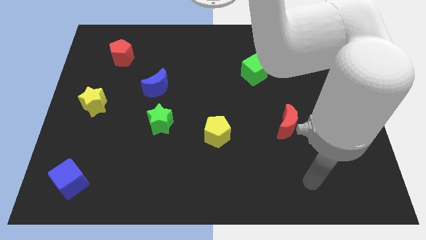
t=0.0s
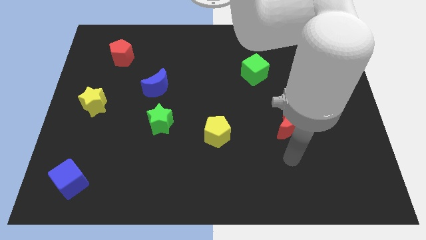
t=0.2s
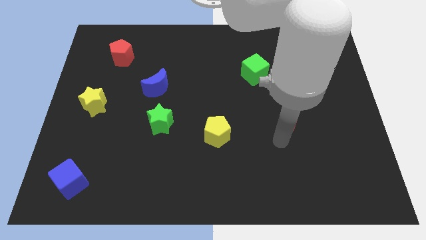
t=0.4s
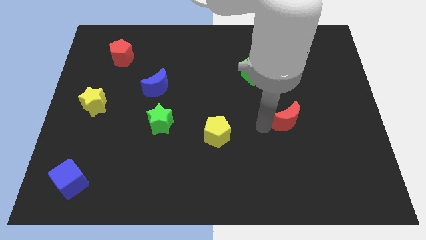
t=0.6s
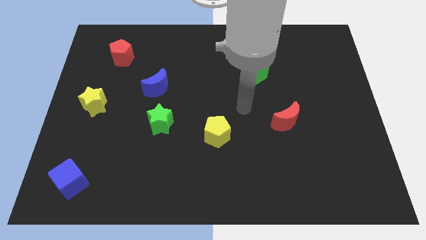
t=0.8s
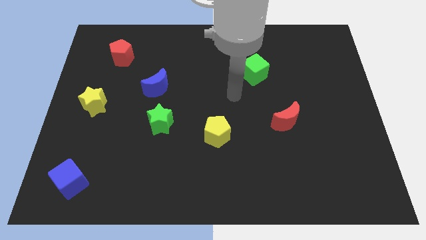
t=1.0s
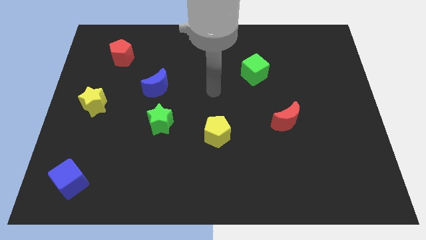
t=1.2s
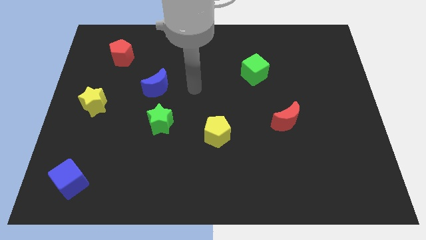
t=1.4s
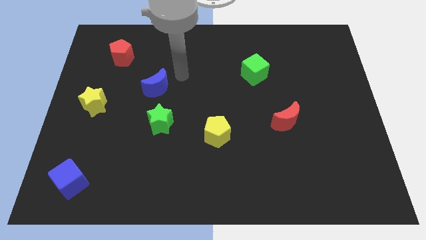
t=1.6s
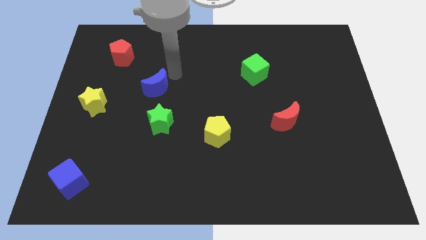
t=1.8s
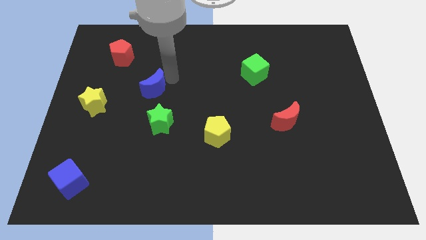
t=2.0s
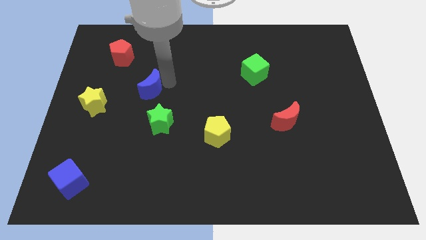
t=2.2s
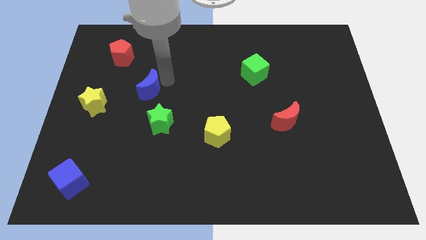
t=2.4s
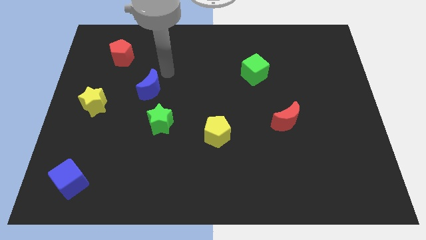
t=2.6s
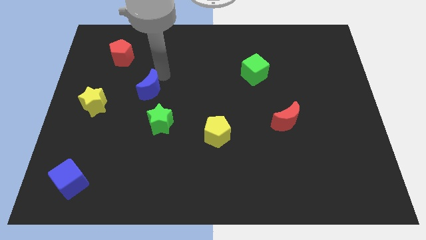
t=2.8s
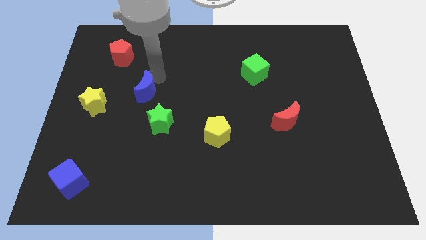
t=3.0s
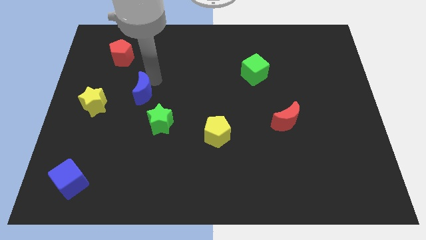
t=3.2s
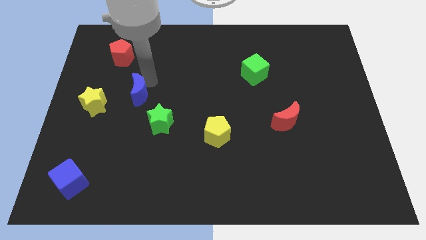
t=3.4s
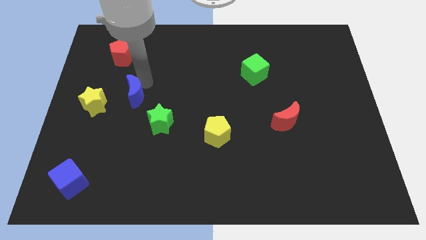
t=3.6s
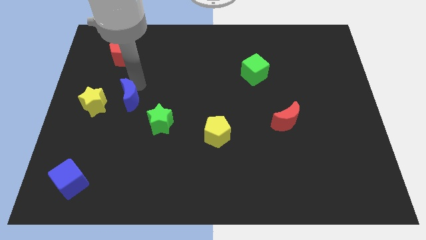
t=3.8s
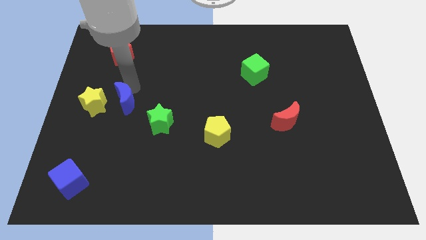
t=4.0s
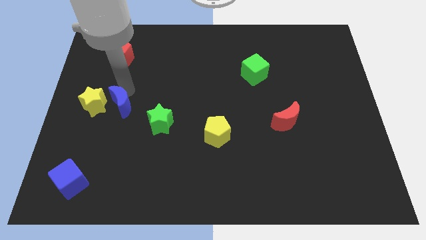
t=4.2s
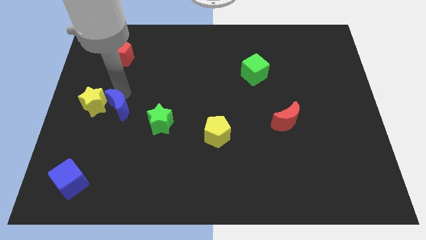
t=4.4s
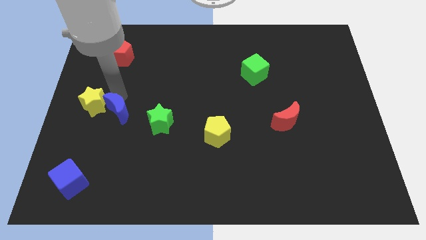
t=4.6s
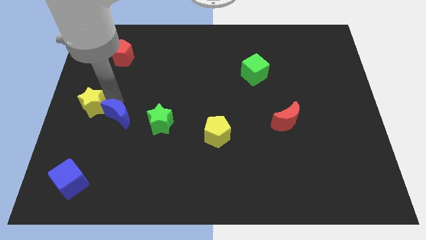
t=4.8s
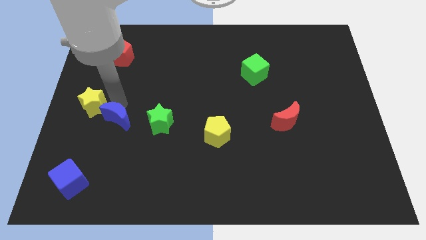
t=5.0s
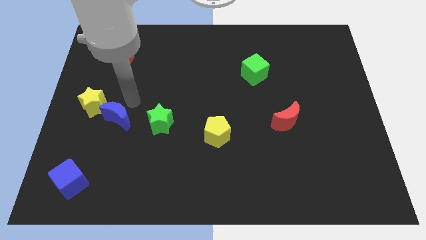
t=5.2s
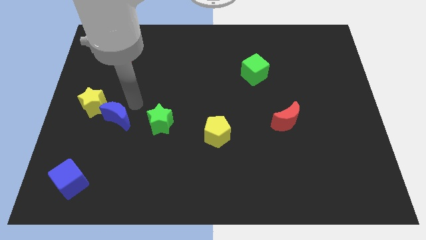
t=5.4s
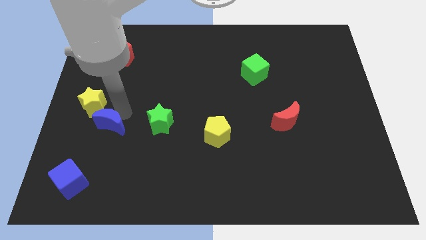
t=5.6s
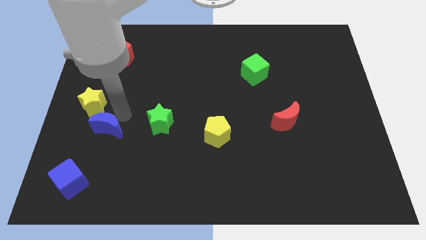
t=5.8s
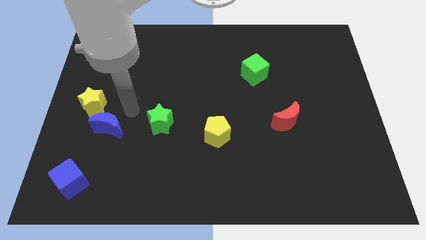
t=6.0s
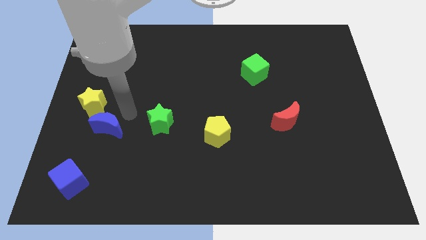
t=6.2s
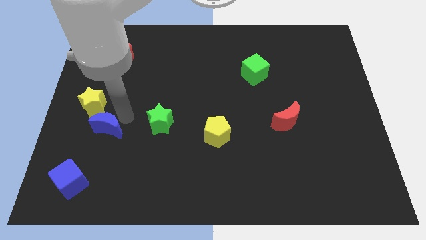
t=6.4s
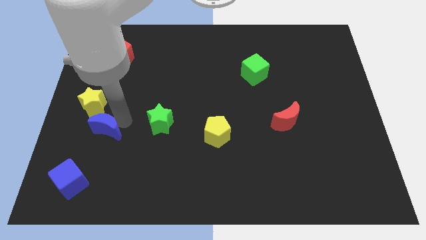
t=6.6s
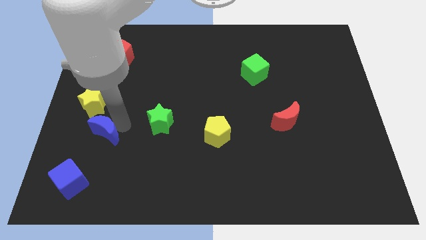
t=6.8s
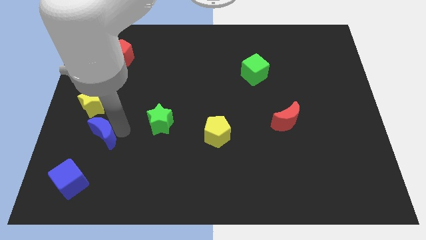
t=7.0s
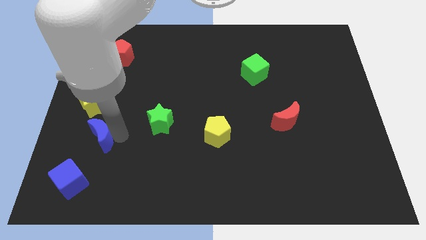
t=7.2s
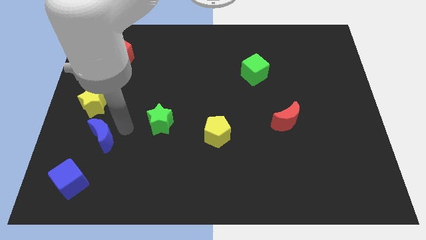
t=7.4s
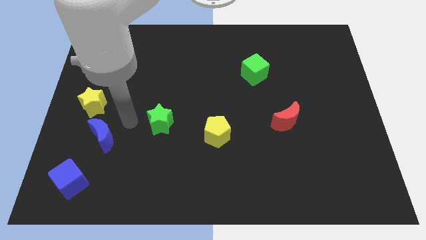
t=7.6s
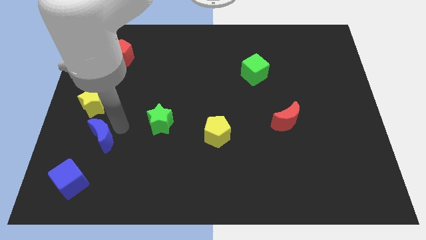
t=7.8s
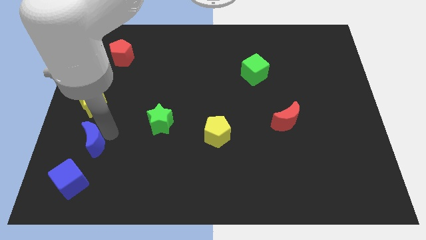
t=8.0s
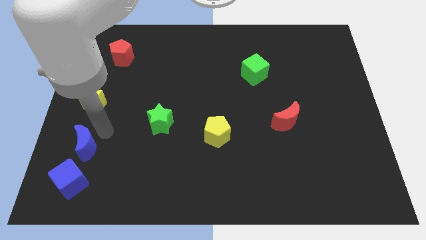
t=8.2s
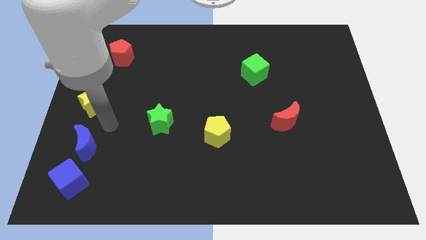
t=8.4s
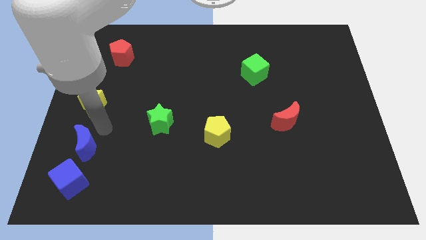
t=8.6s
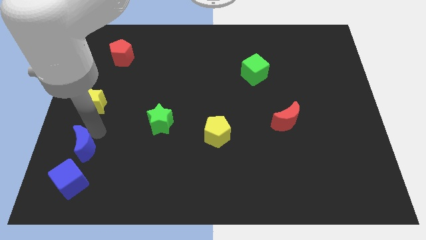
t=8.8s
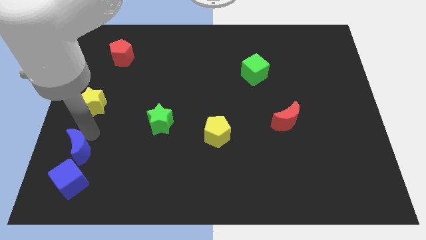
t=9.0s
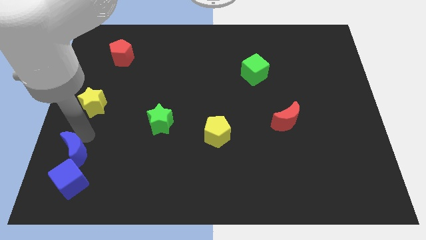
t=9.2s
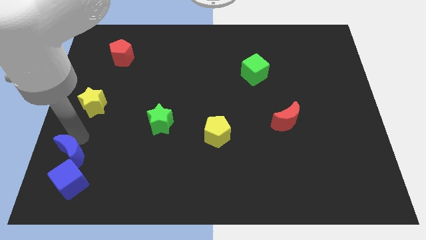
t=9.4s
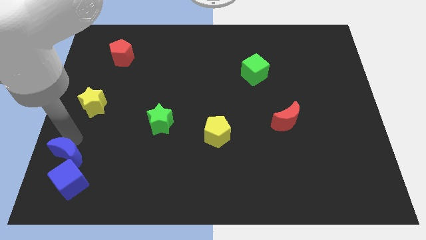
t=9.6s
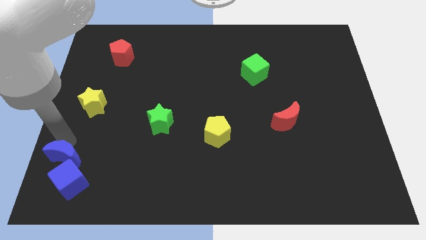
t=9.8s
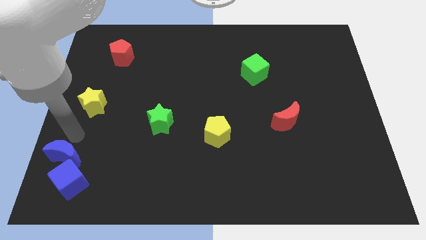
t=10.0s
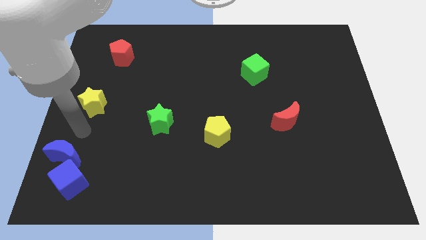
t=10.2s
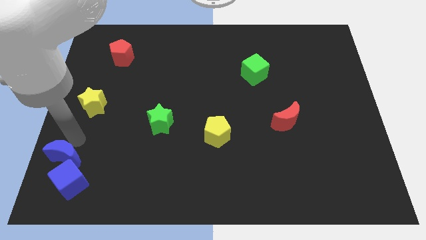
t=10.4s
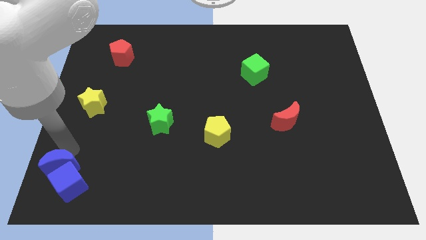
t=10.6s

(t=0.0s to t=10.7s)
push the blue moon to the lower left corner

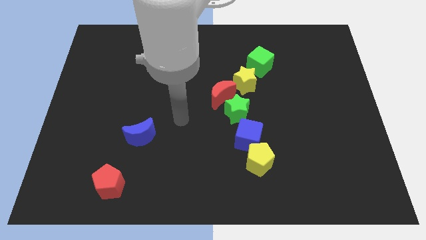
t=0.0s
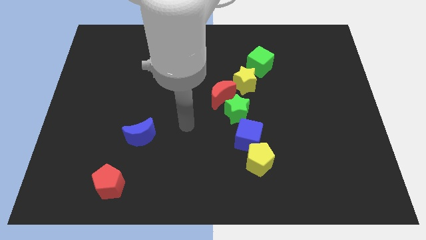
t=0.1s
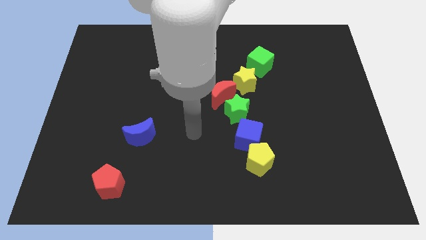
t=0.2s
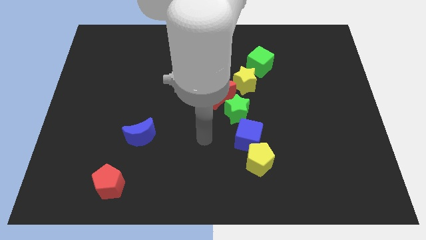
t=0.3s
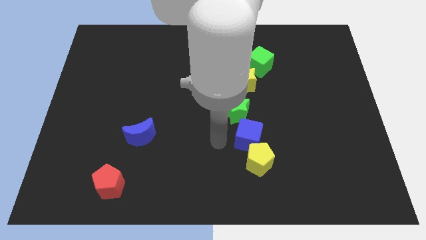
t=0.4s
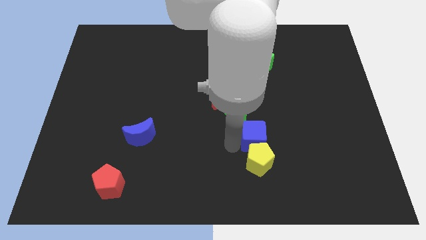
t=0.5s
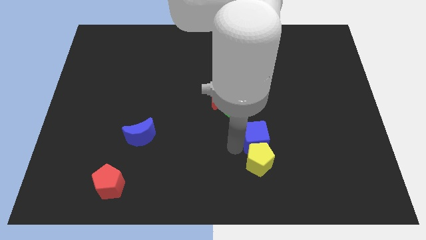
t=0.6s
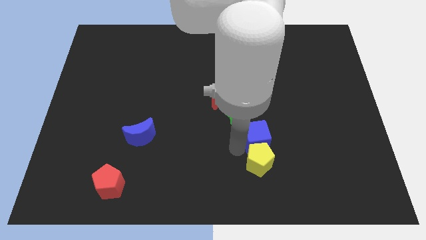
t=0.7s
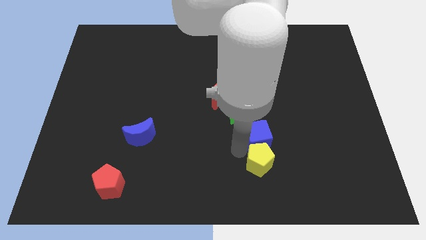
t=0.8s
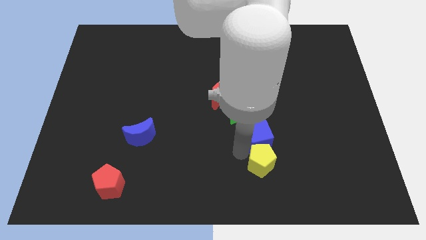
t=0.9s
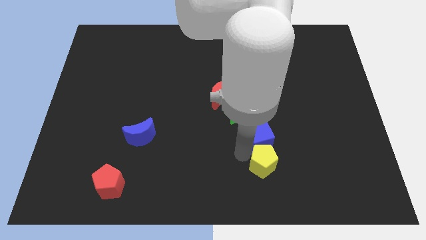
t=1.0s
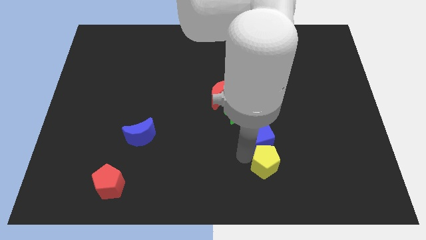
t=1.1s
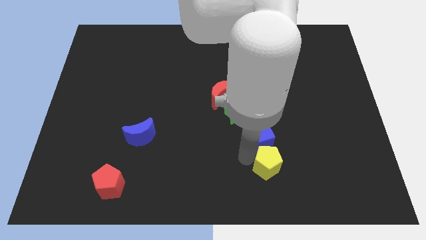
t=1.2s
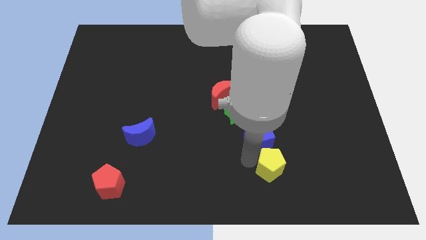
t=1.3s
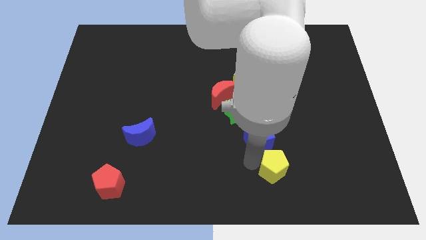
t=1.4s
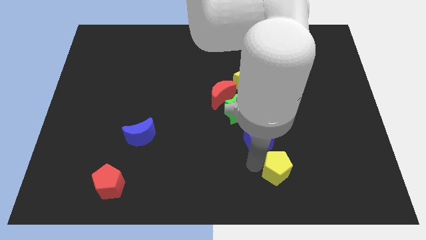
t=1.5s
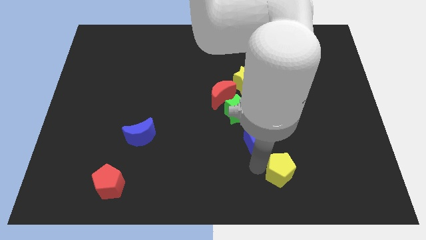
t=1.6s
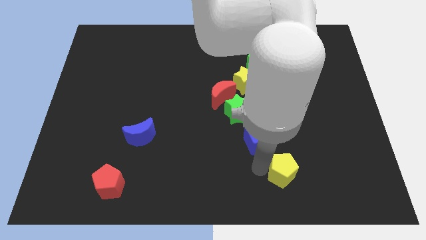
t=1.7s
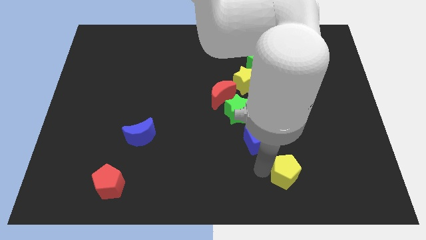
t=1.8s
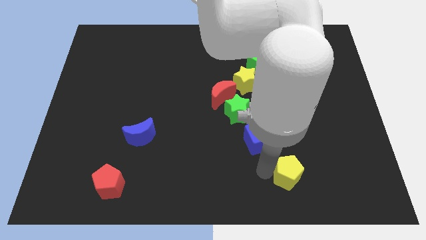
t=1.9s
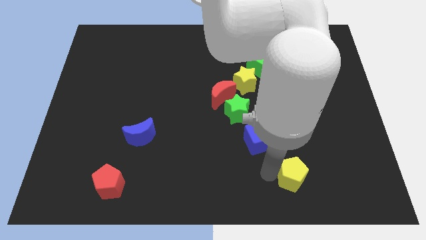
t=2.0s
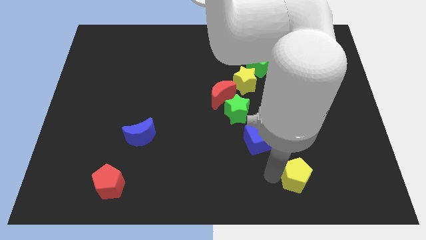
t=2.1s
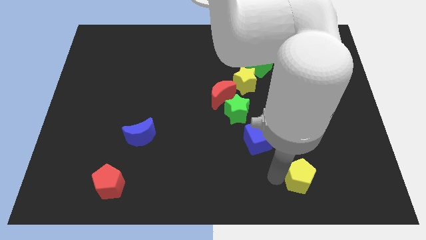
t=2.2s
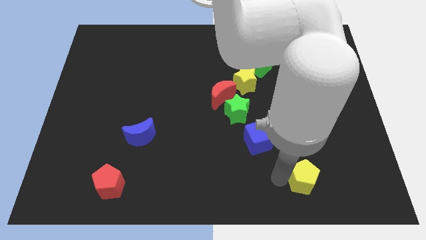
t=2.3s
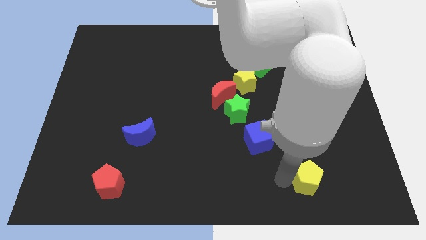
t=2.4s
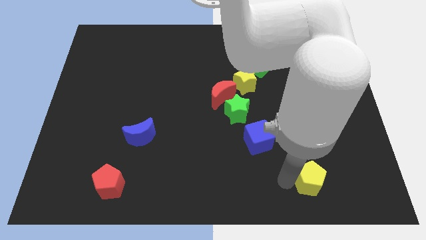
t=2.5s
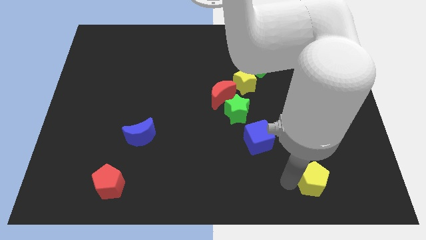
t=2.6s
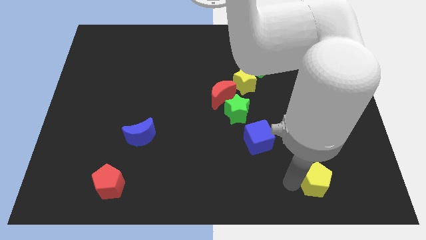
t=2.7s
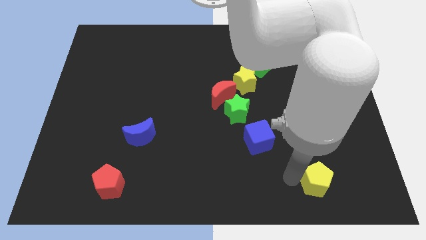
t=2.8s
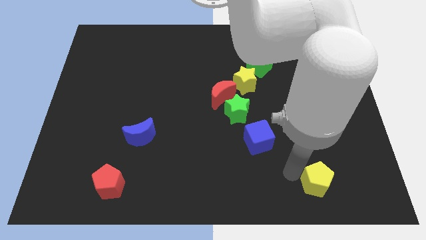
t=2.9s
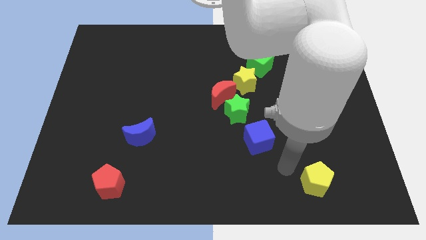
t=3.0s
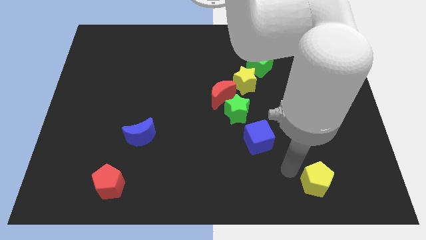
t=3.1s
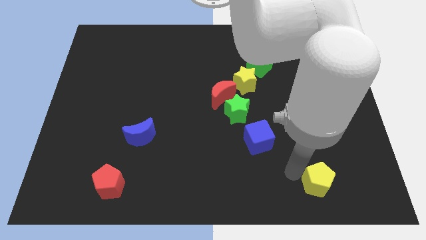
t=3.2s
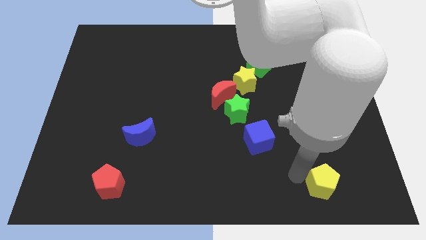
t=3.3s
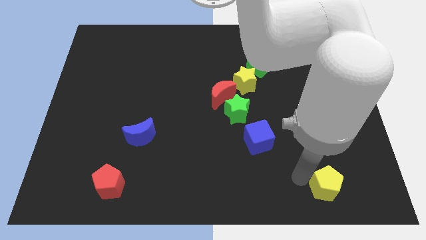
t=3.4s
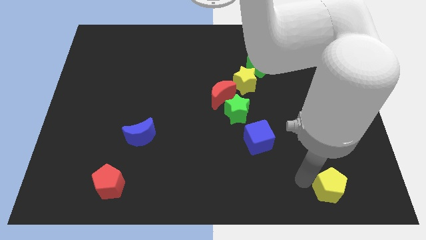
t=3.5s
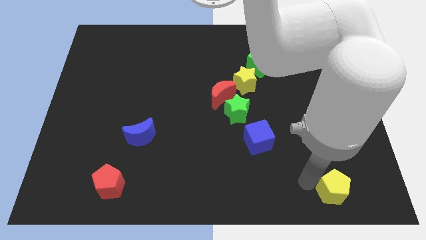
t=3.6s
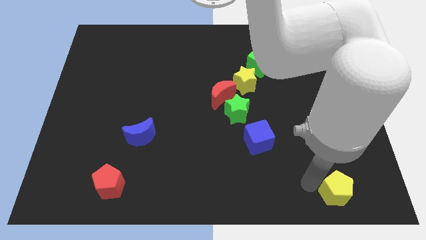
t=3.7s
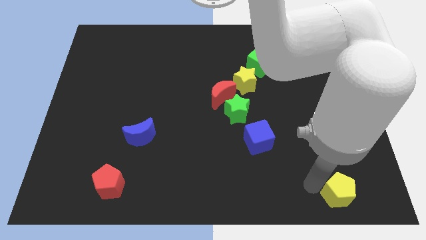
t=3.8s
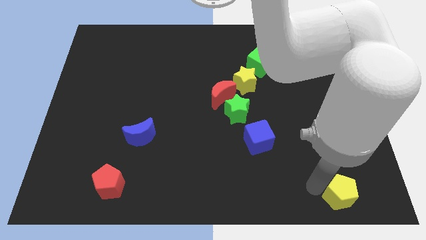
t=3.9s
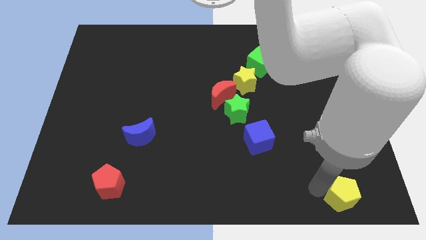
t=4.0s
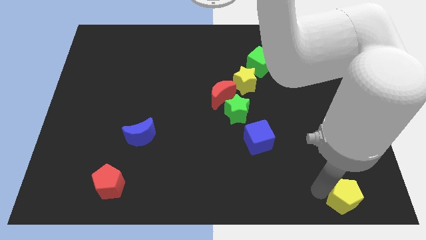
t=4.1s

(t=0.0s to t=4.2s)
put the yellow pentagon to the bottom right corner
